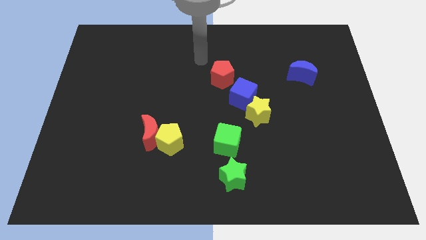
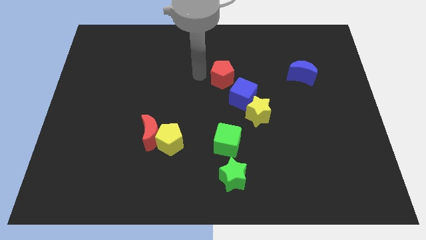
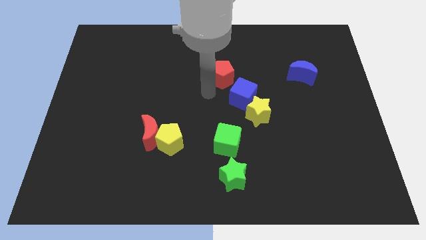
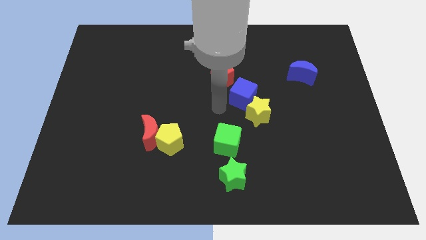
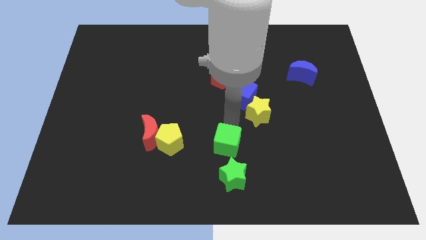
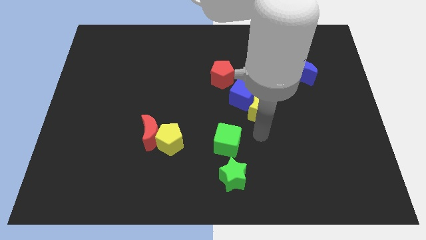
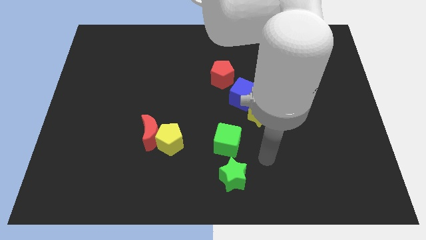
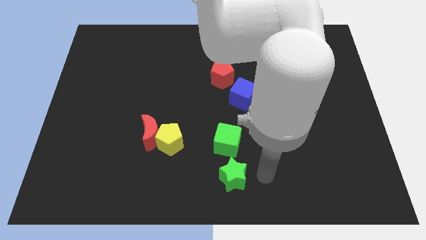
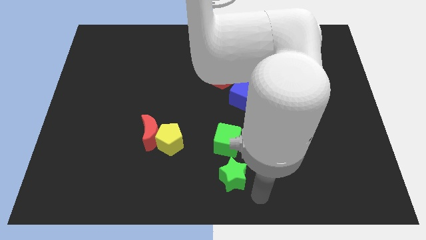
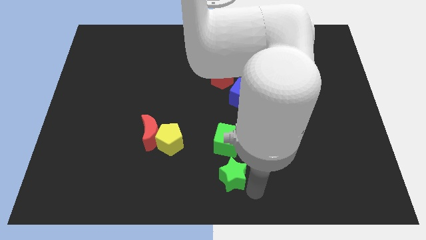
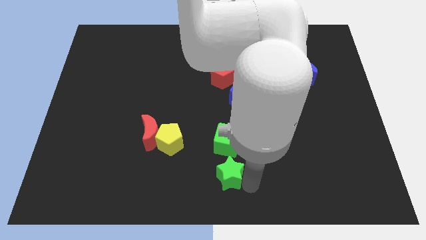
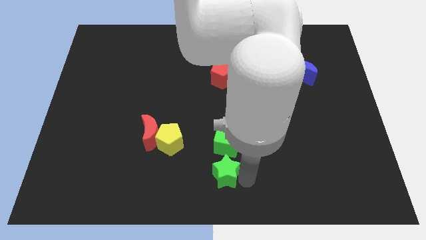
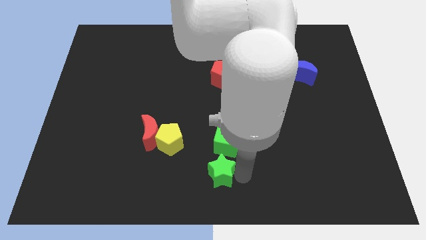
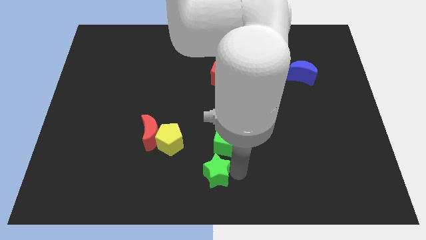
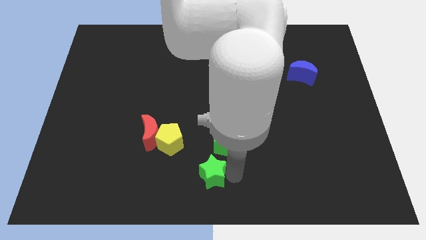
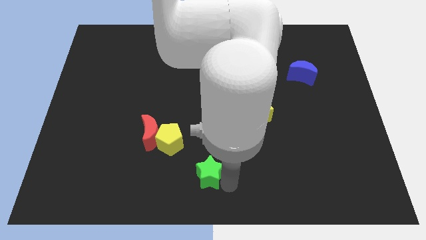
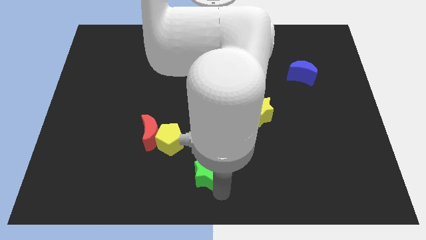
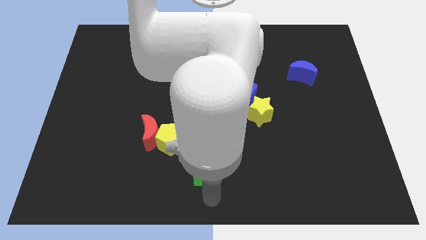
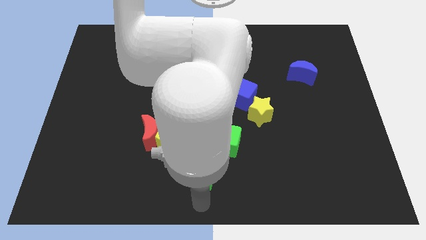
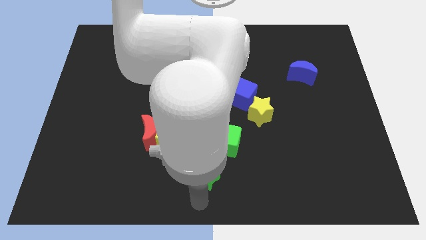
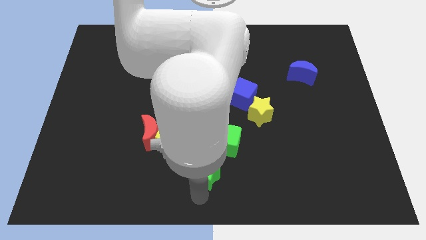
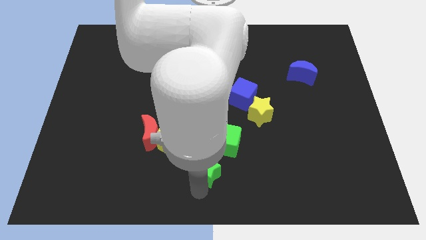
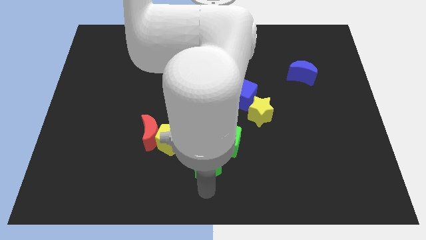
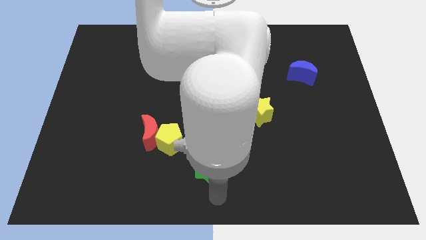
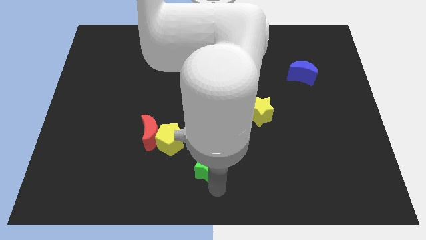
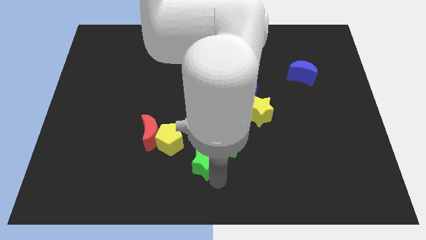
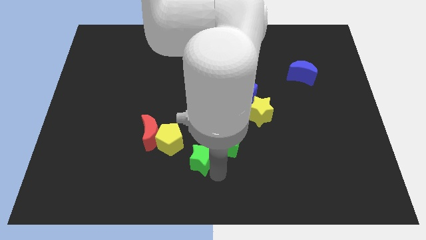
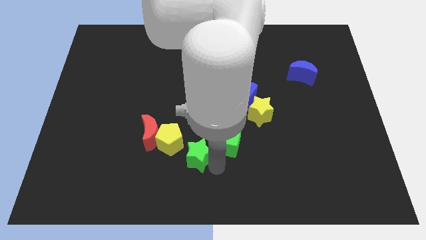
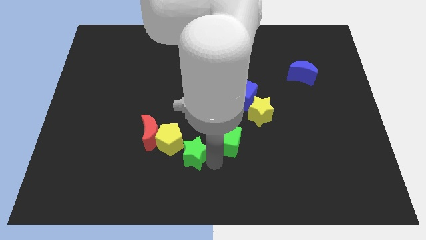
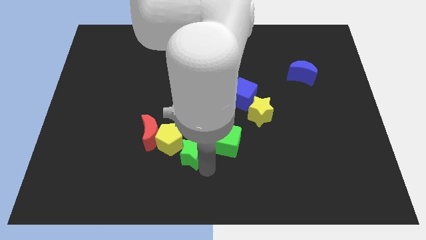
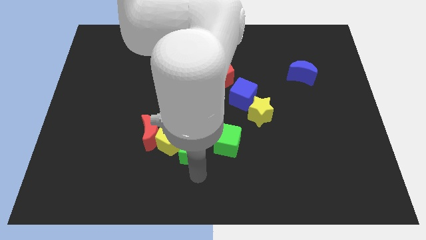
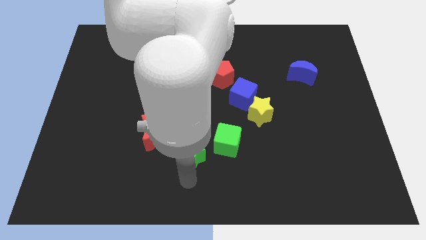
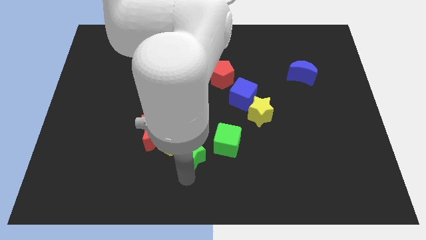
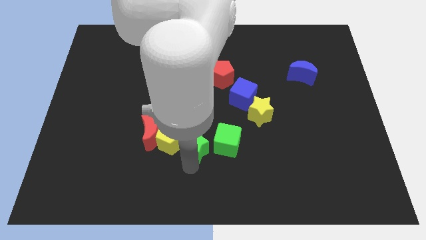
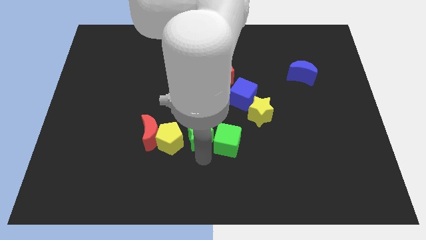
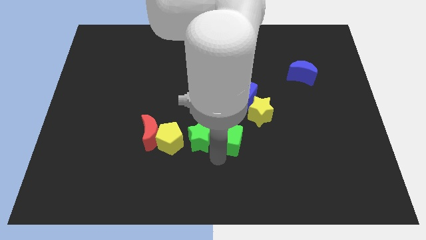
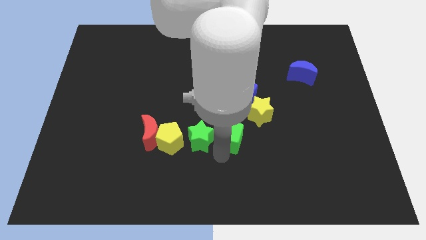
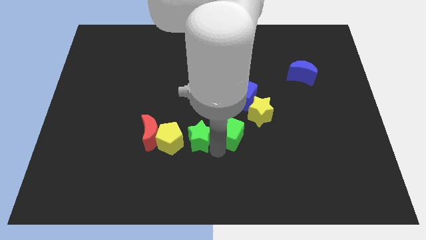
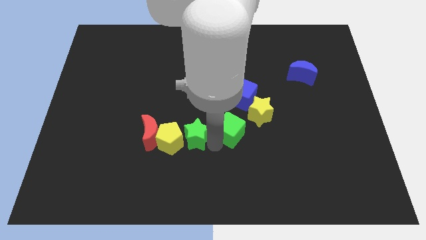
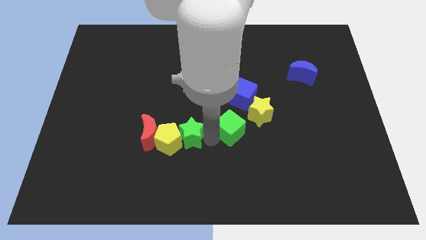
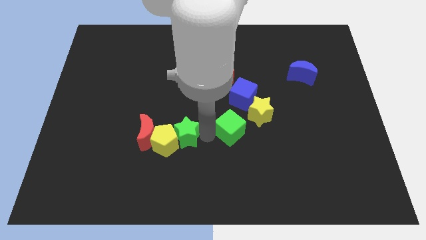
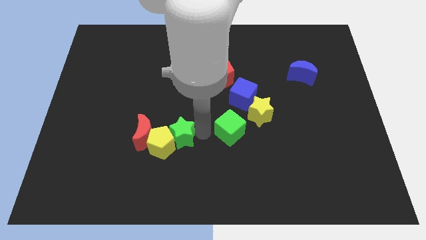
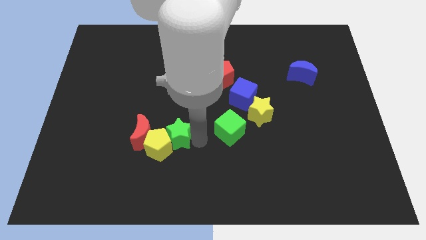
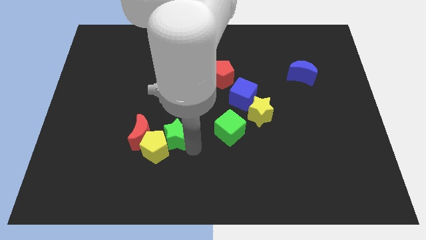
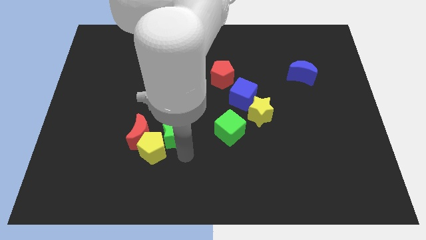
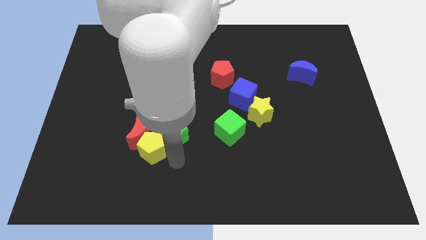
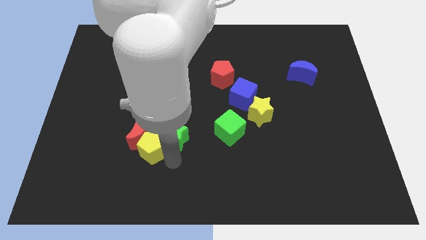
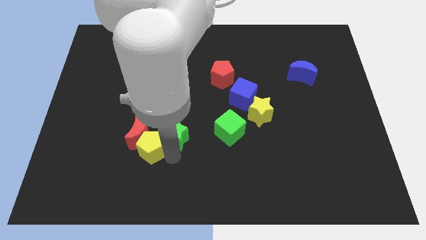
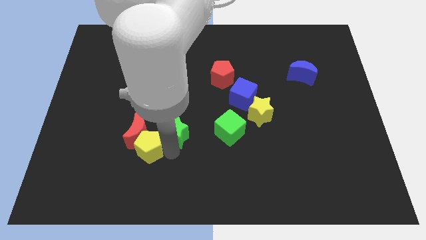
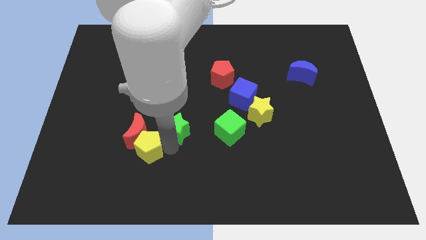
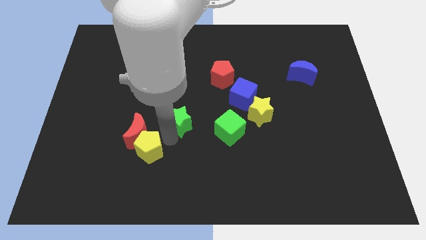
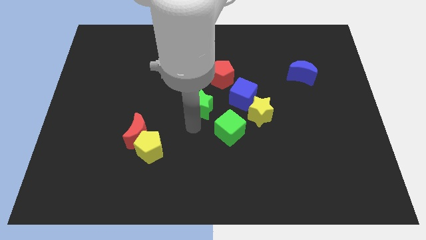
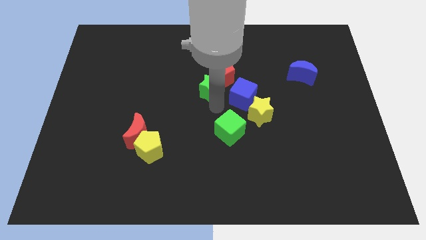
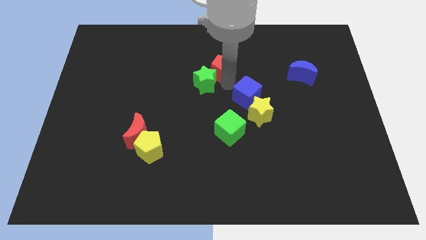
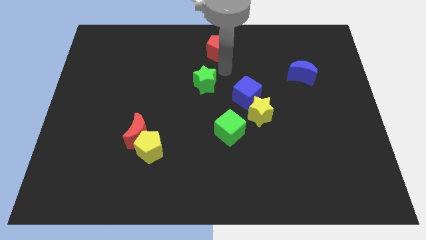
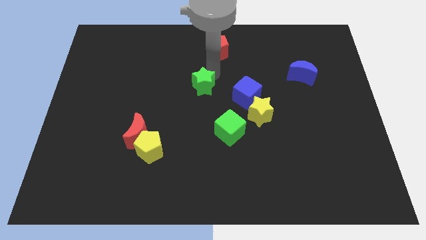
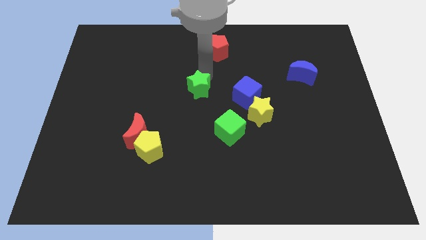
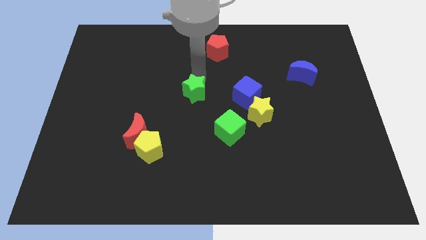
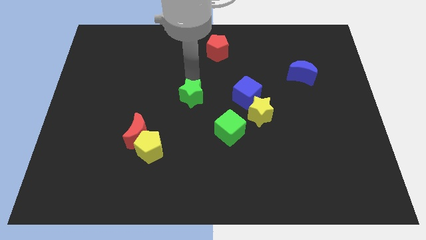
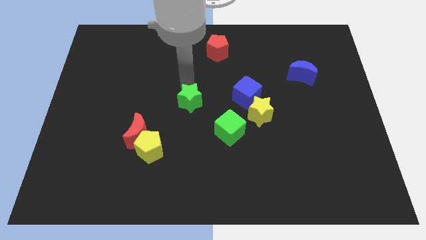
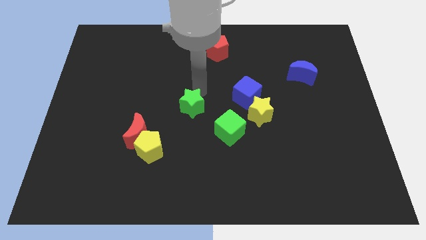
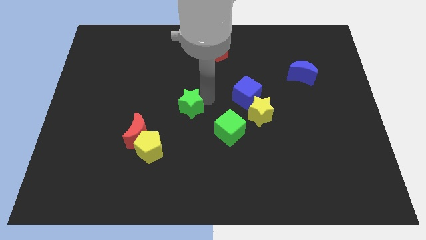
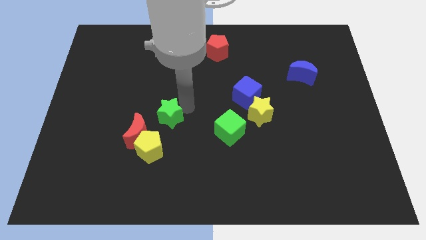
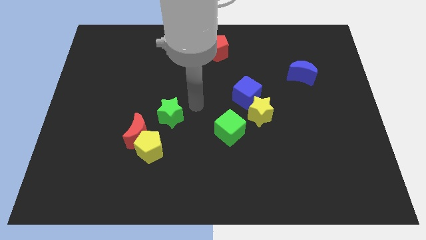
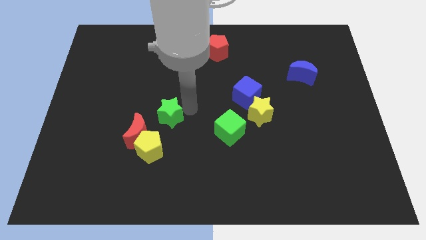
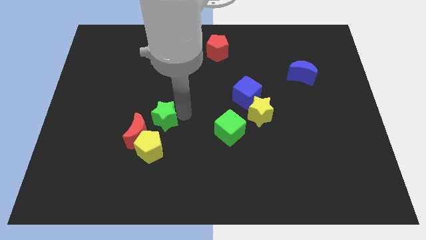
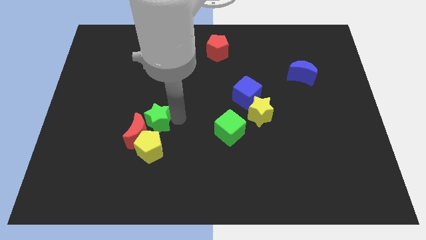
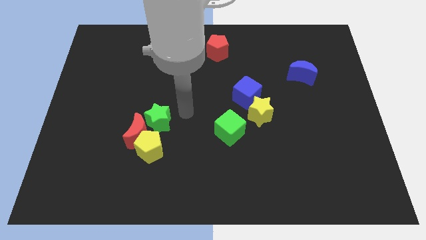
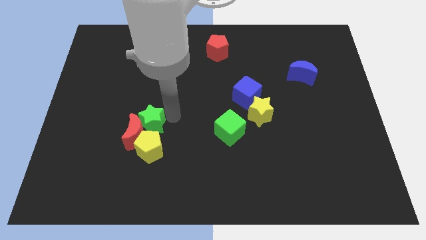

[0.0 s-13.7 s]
push the green star to the top left side of the yellow pentagon

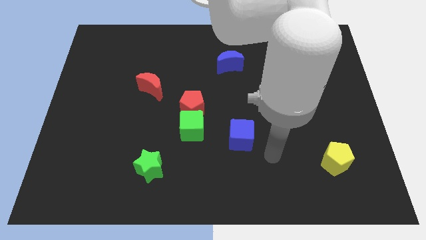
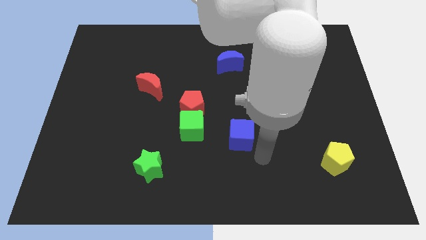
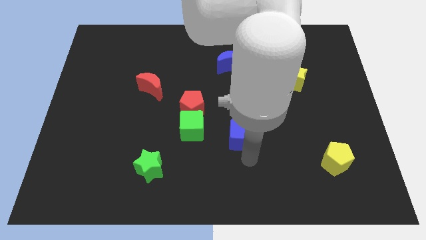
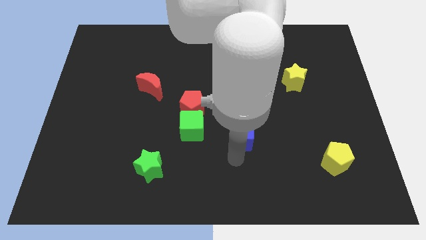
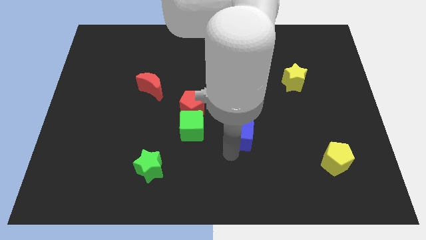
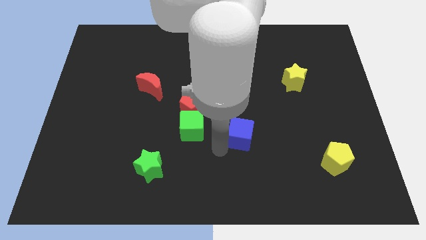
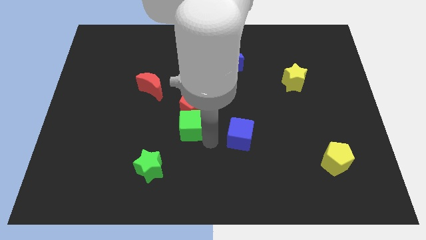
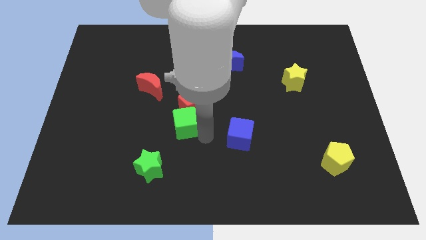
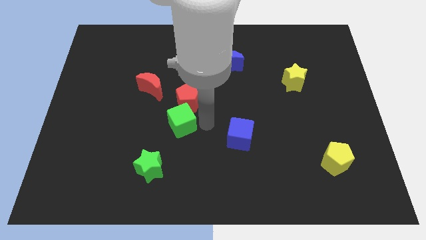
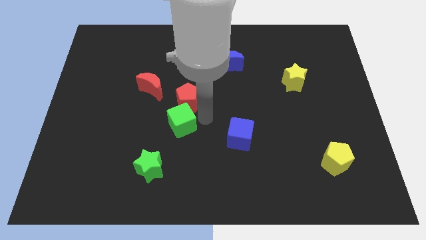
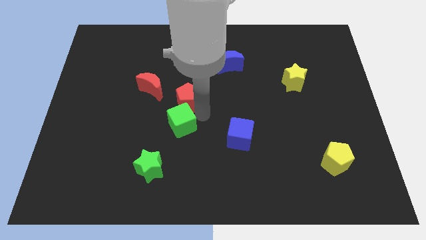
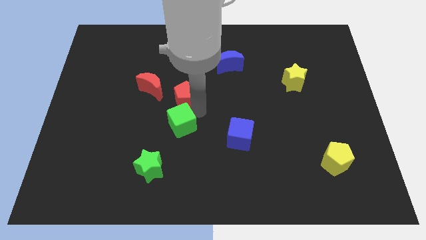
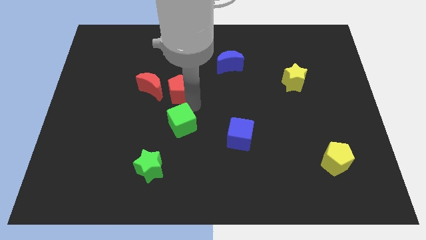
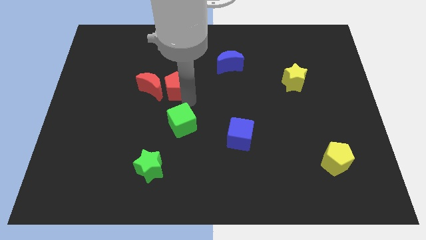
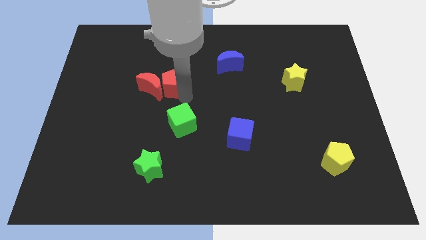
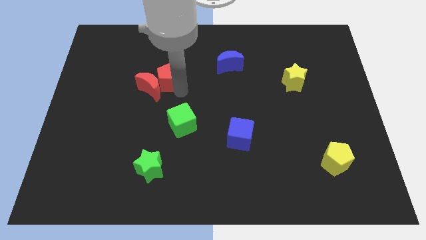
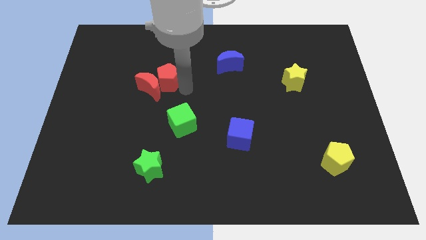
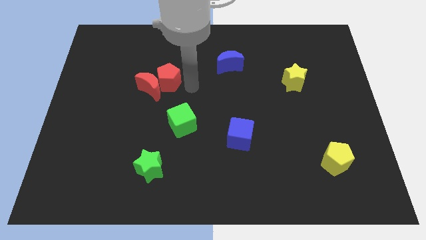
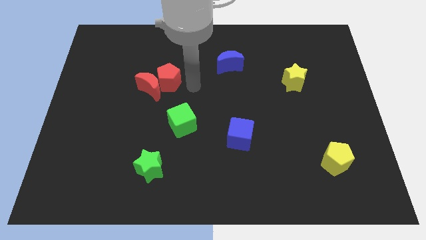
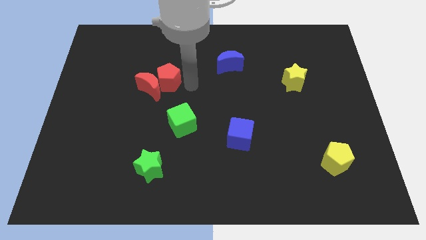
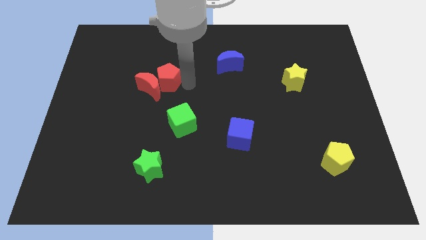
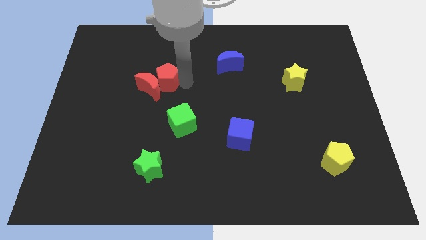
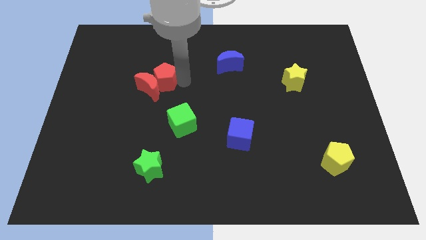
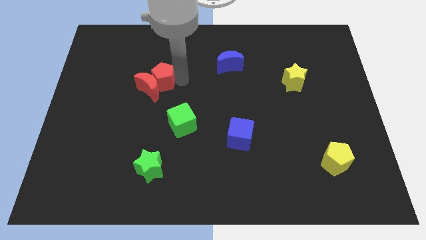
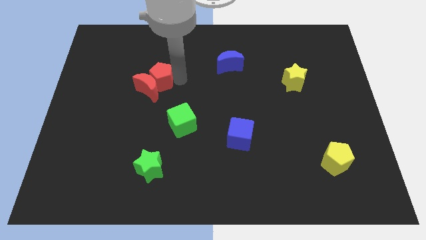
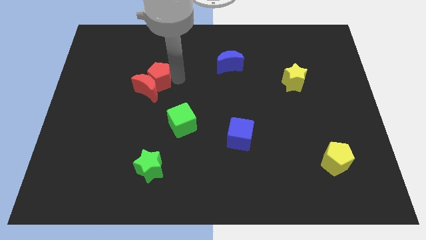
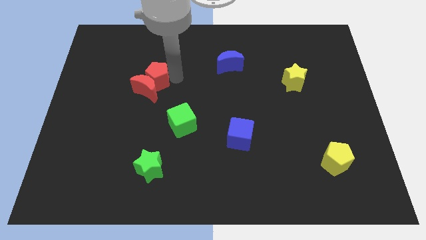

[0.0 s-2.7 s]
put the red pentagon to the top left side of the red moon
